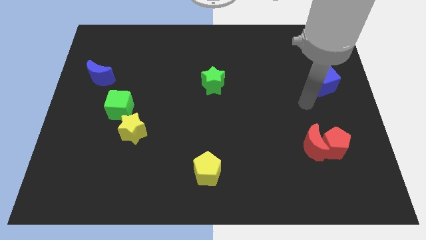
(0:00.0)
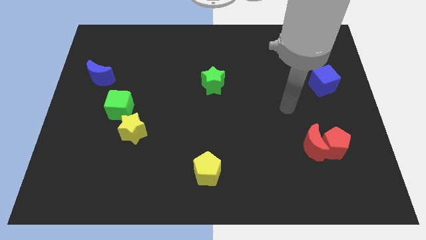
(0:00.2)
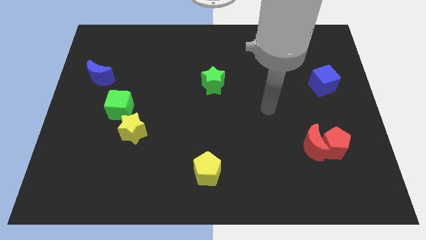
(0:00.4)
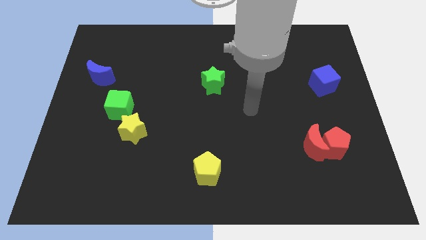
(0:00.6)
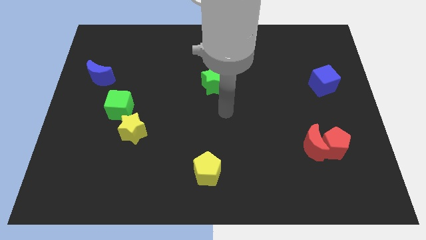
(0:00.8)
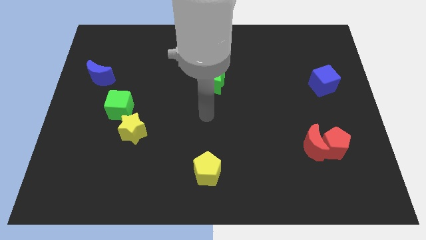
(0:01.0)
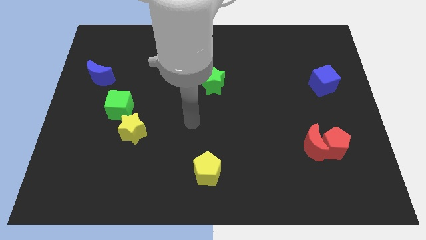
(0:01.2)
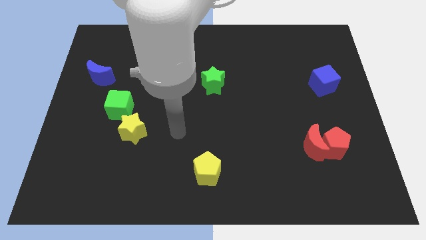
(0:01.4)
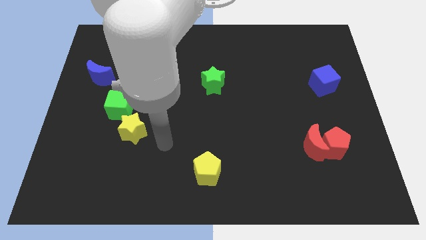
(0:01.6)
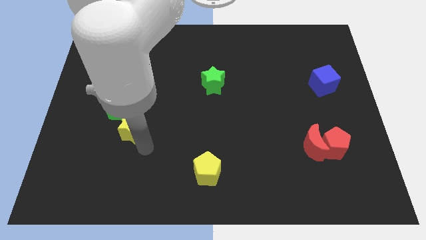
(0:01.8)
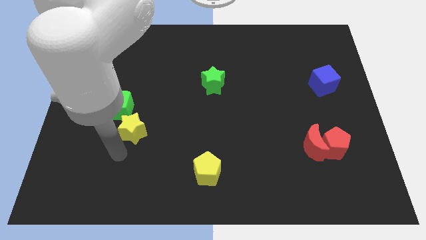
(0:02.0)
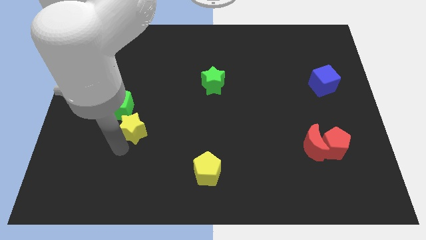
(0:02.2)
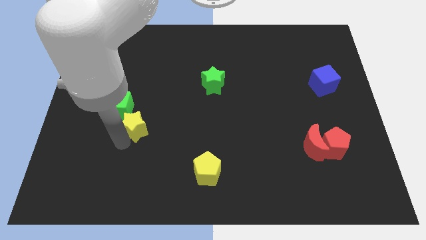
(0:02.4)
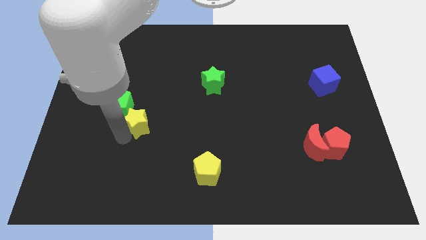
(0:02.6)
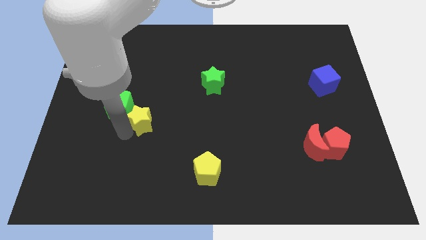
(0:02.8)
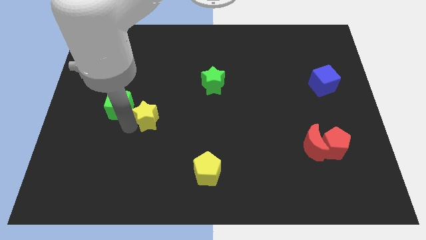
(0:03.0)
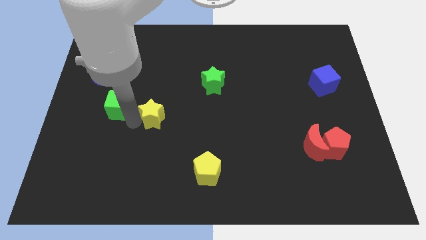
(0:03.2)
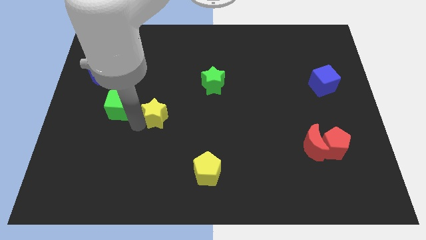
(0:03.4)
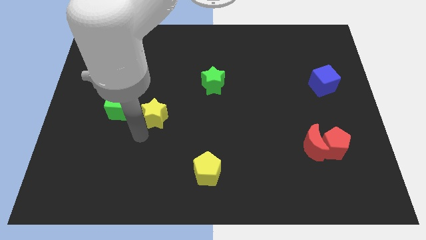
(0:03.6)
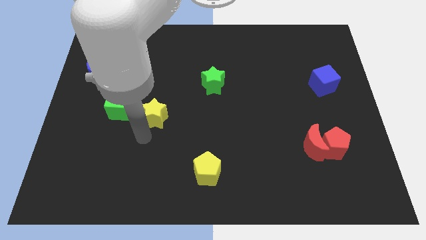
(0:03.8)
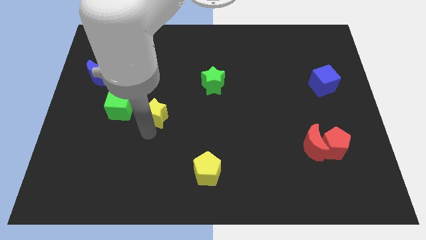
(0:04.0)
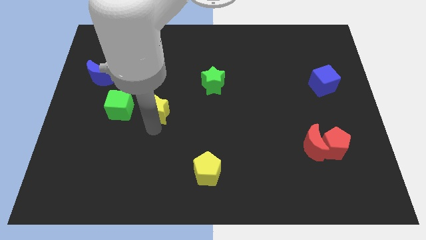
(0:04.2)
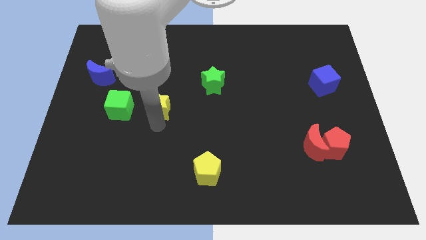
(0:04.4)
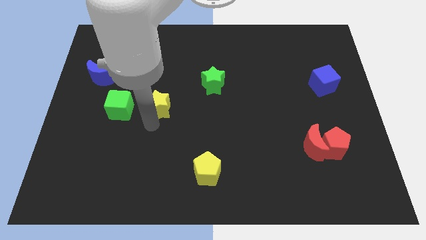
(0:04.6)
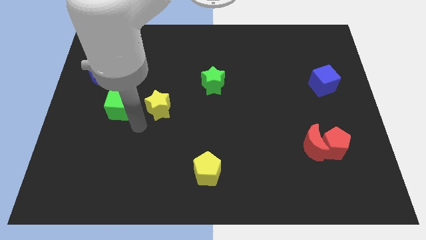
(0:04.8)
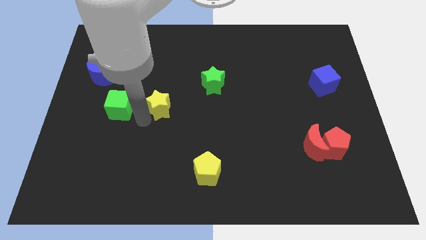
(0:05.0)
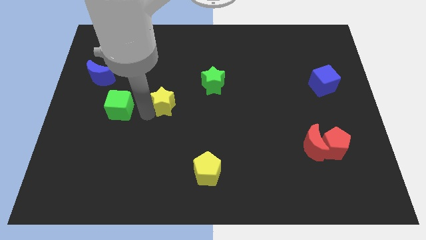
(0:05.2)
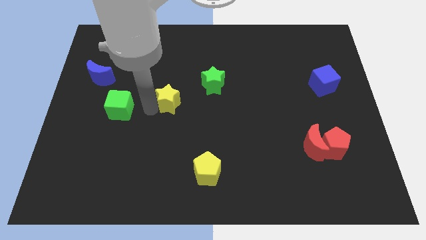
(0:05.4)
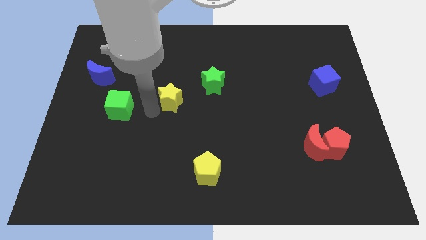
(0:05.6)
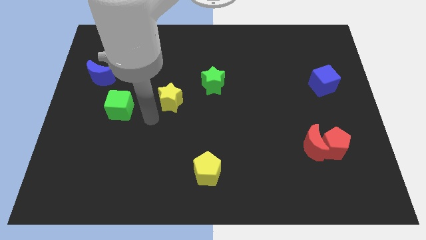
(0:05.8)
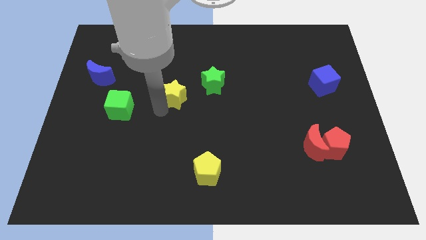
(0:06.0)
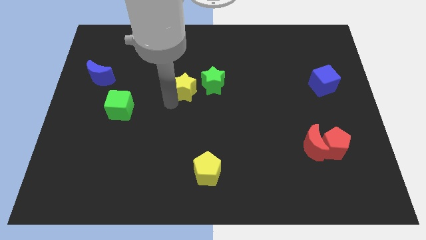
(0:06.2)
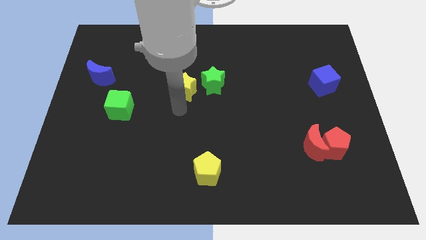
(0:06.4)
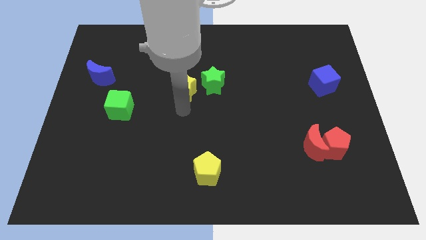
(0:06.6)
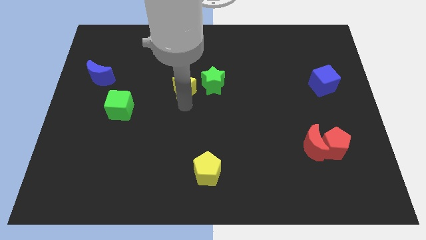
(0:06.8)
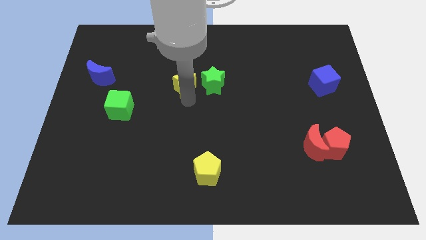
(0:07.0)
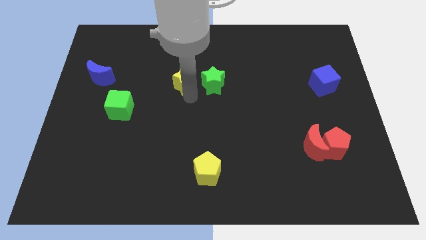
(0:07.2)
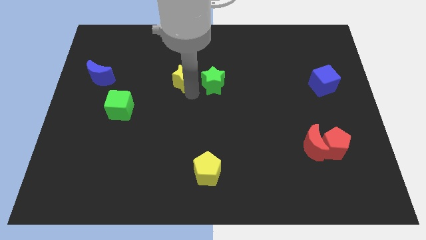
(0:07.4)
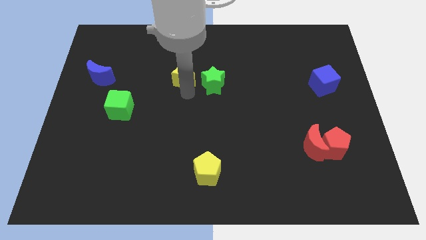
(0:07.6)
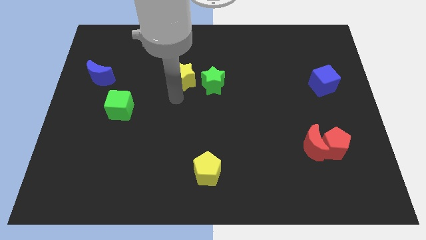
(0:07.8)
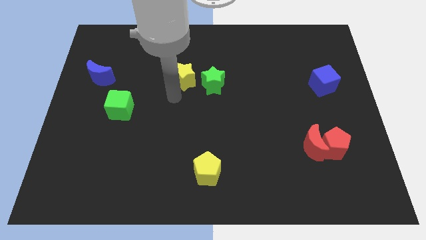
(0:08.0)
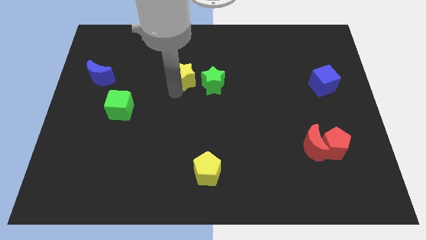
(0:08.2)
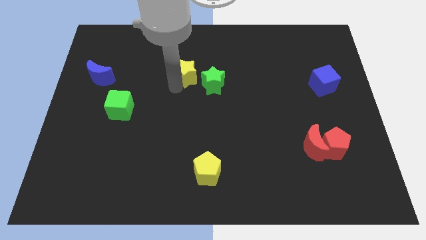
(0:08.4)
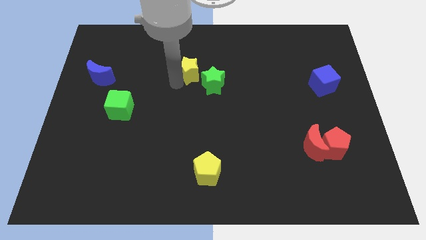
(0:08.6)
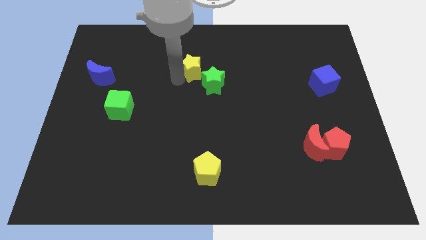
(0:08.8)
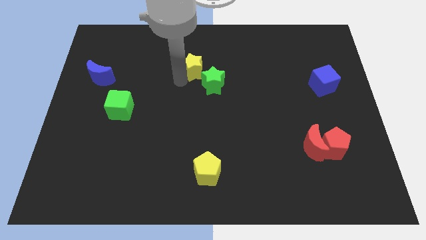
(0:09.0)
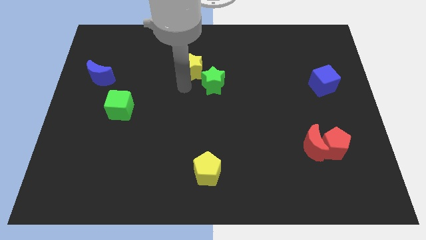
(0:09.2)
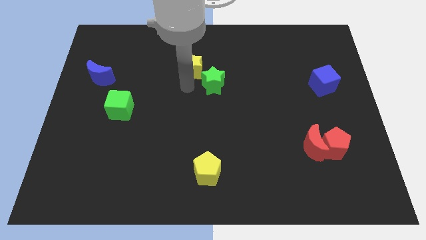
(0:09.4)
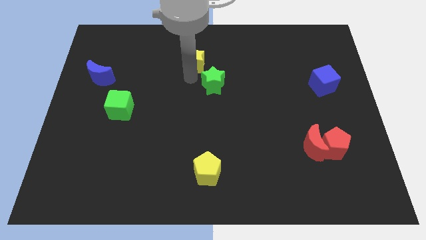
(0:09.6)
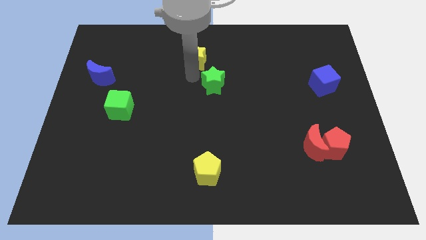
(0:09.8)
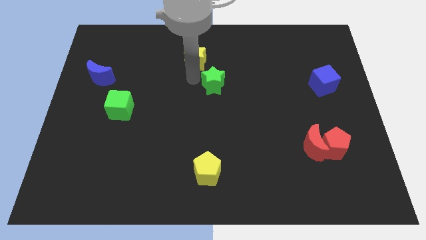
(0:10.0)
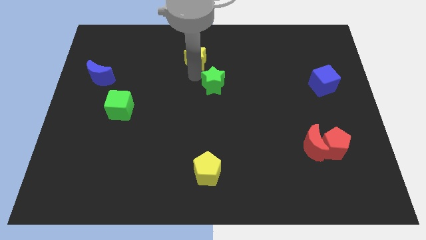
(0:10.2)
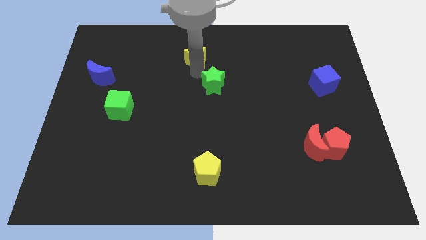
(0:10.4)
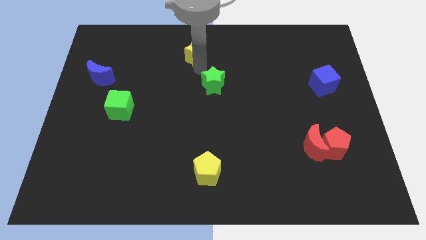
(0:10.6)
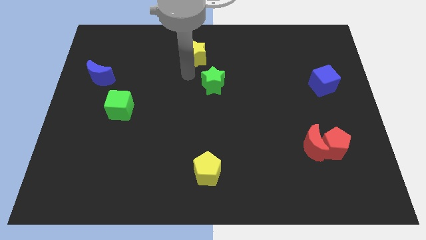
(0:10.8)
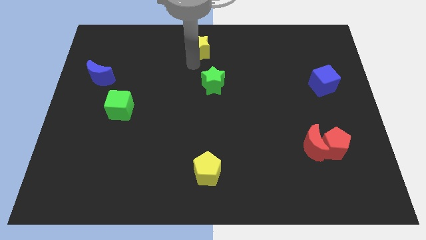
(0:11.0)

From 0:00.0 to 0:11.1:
push the yellow star to the towards your base

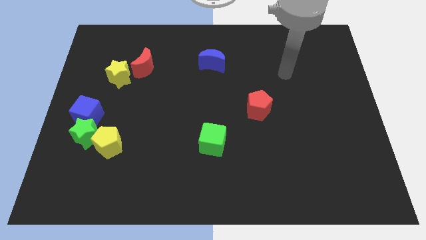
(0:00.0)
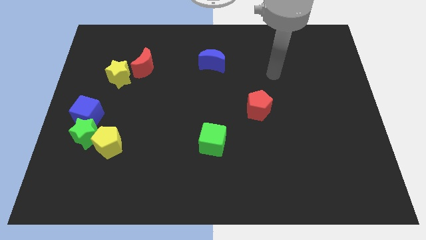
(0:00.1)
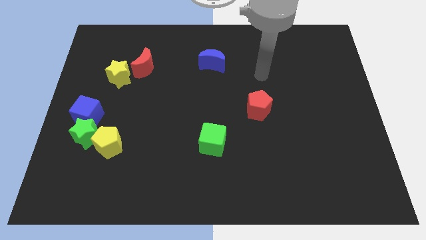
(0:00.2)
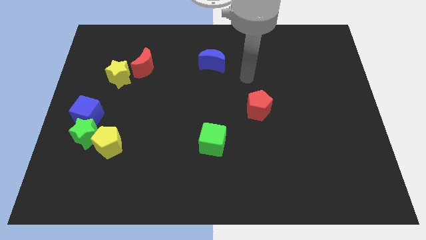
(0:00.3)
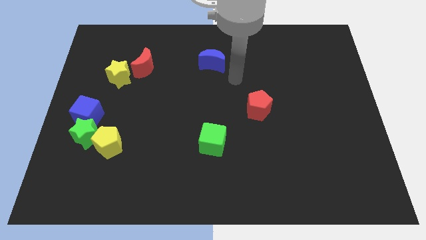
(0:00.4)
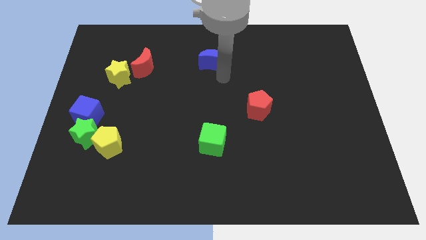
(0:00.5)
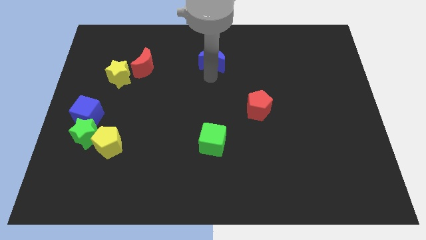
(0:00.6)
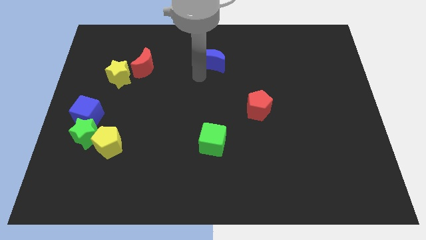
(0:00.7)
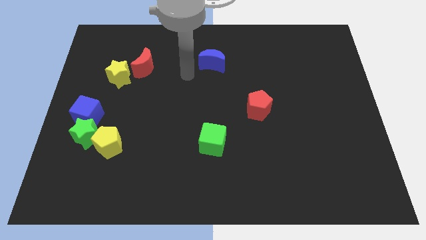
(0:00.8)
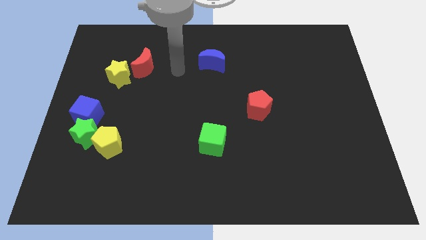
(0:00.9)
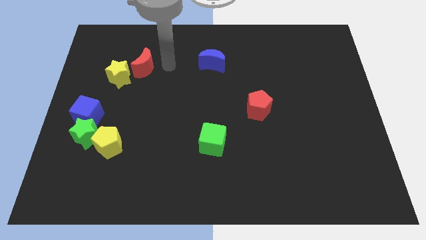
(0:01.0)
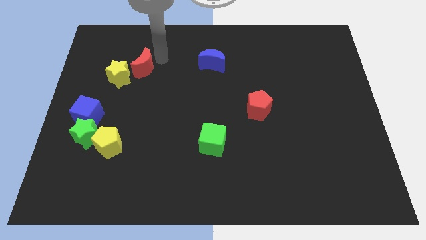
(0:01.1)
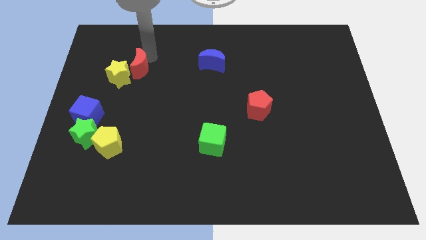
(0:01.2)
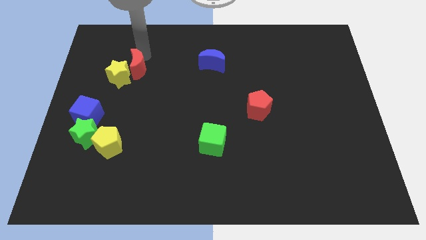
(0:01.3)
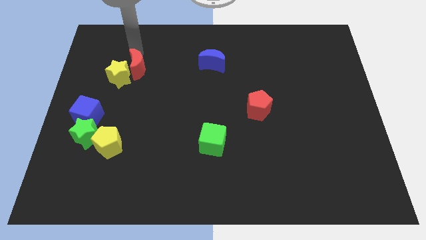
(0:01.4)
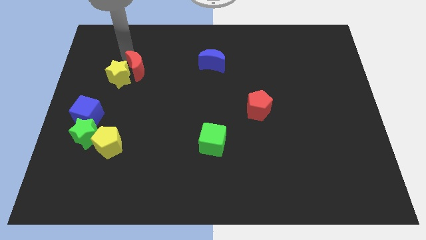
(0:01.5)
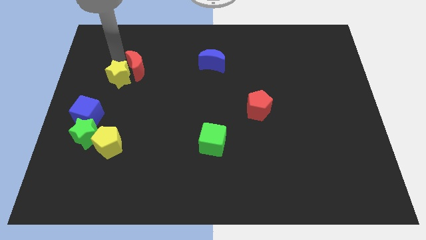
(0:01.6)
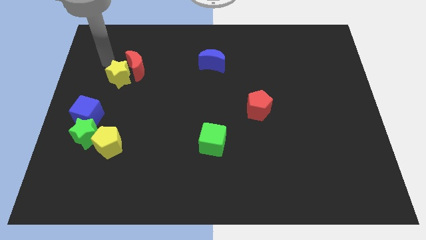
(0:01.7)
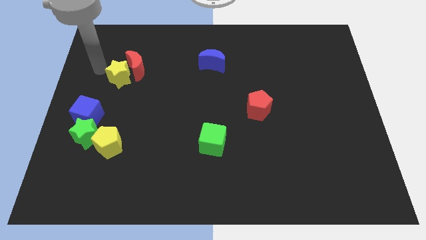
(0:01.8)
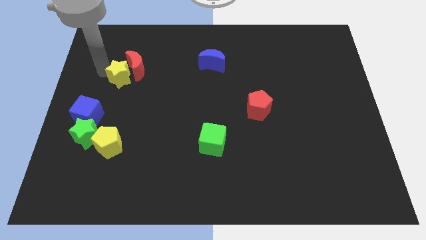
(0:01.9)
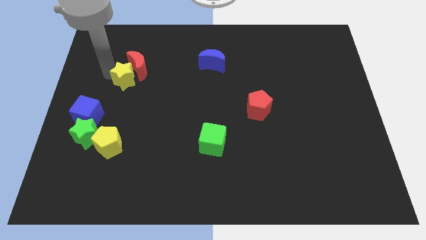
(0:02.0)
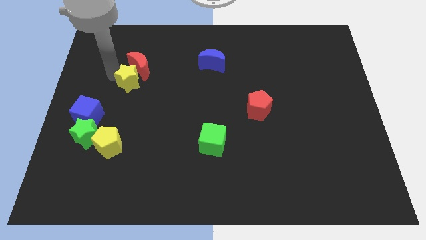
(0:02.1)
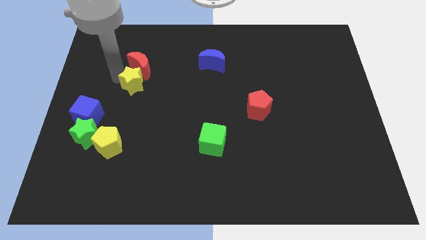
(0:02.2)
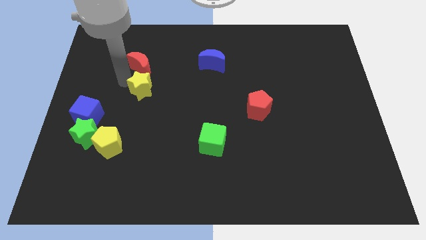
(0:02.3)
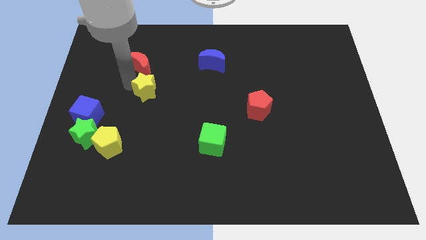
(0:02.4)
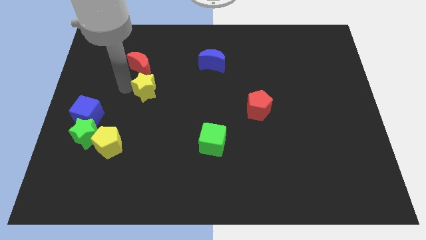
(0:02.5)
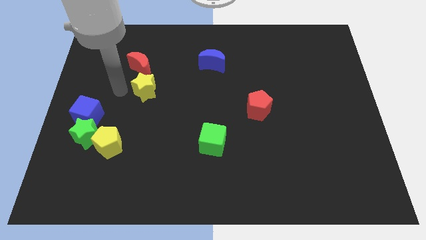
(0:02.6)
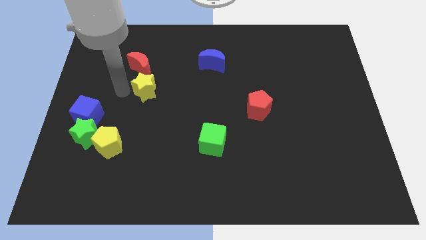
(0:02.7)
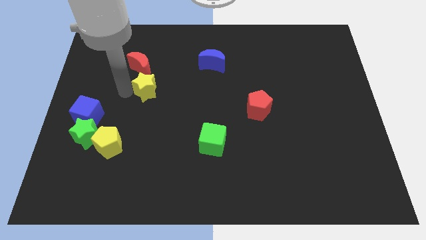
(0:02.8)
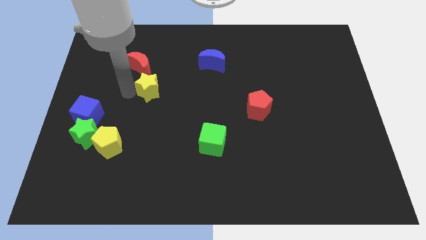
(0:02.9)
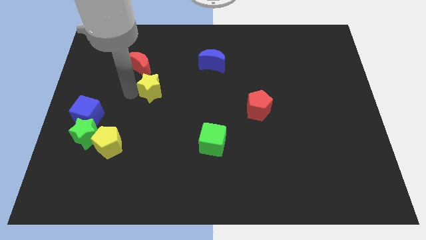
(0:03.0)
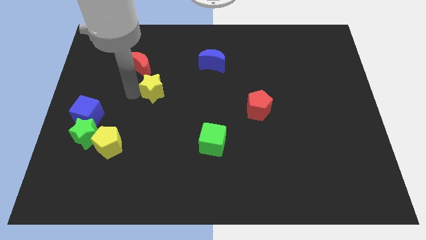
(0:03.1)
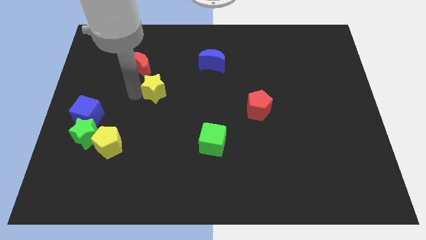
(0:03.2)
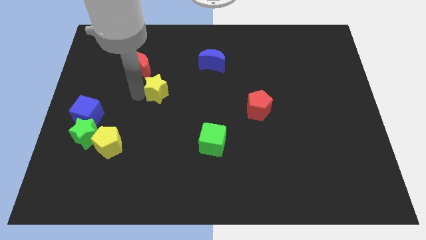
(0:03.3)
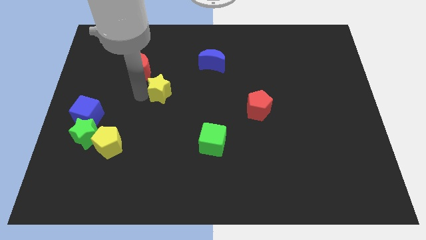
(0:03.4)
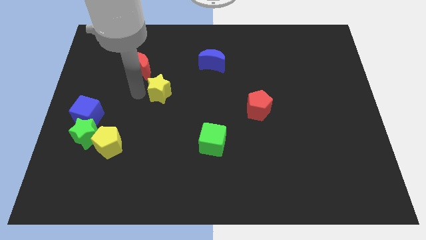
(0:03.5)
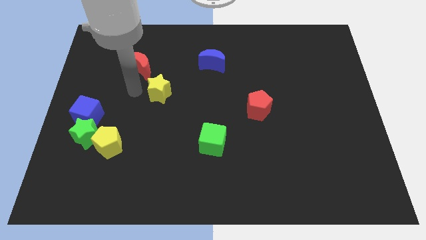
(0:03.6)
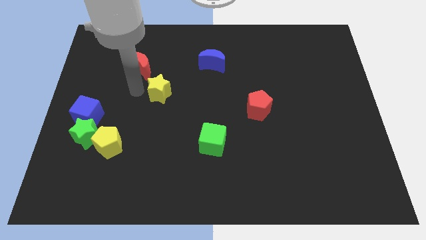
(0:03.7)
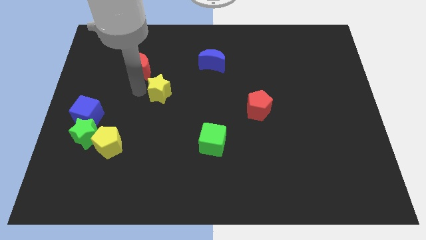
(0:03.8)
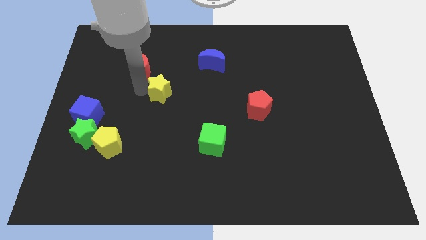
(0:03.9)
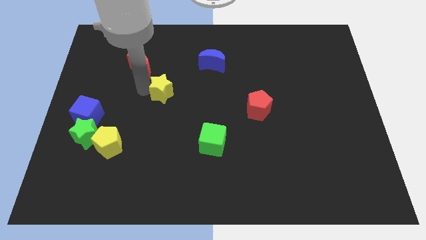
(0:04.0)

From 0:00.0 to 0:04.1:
move the yellow star to the center of the board
